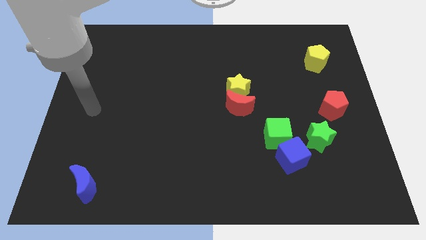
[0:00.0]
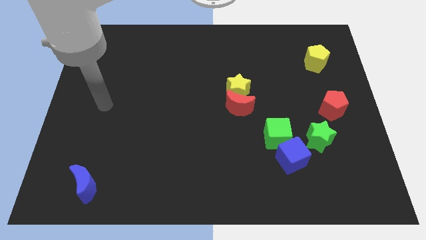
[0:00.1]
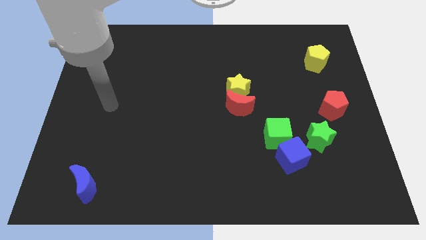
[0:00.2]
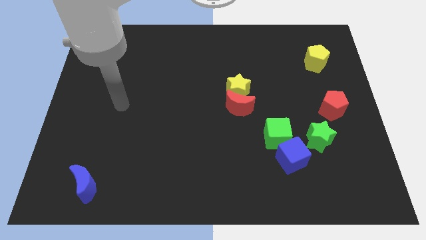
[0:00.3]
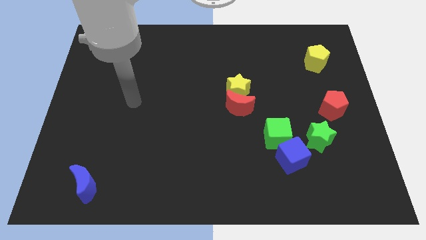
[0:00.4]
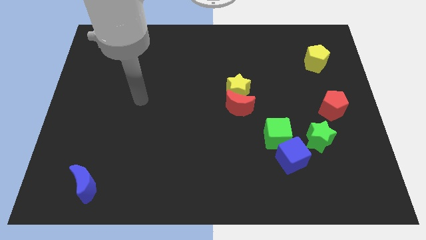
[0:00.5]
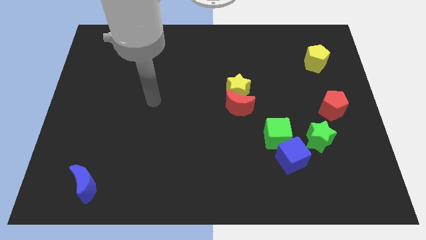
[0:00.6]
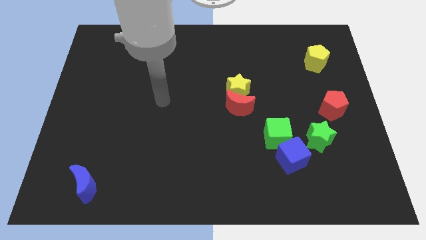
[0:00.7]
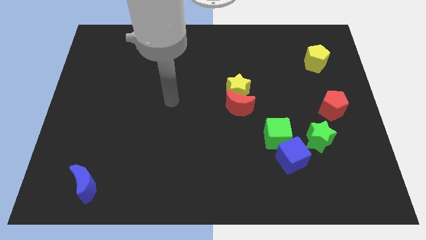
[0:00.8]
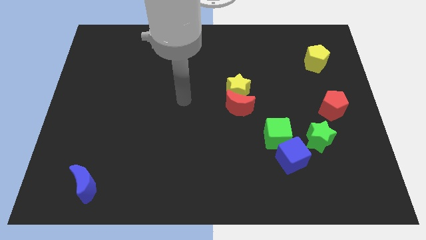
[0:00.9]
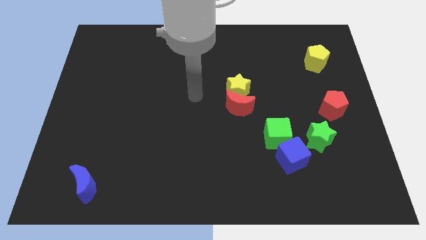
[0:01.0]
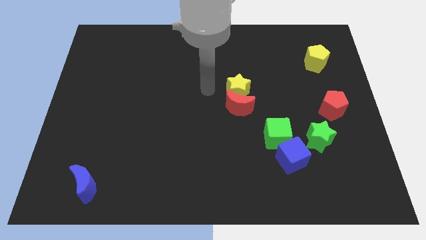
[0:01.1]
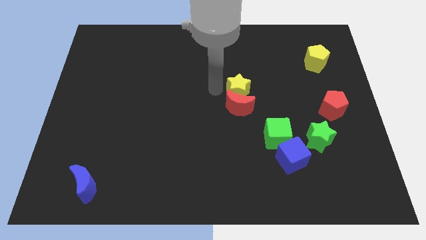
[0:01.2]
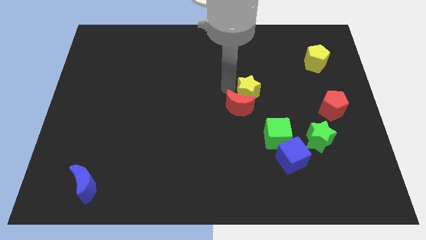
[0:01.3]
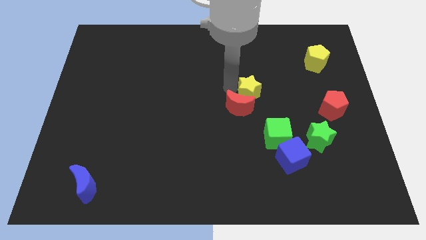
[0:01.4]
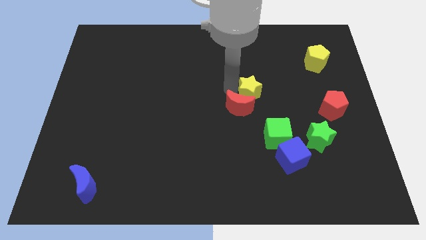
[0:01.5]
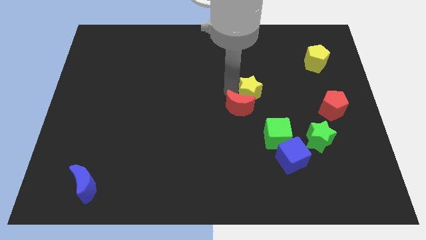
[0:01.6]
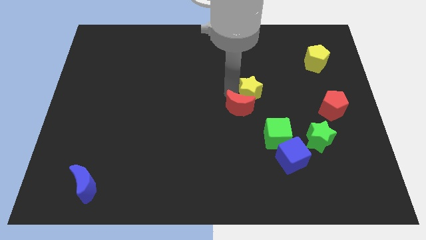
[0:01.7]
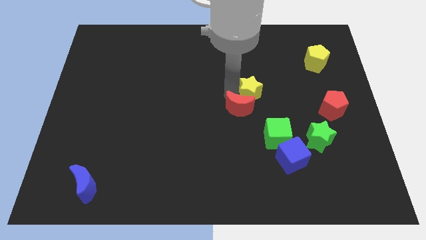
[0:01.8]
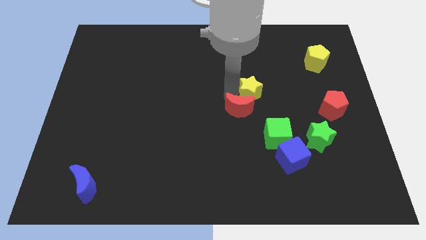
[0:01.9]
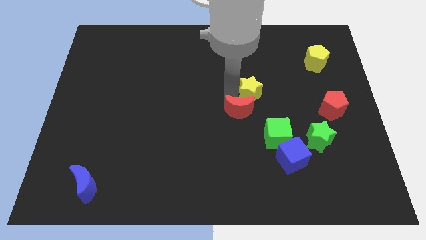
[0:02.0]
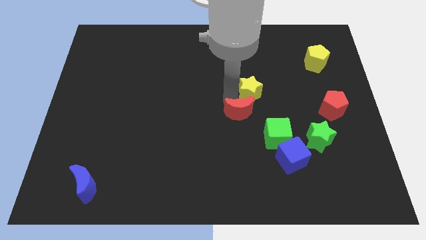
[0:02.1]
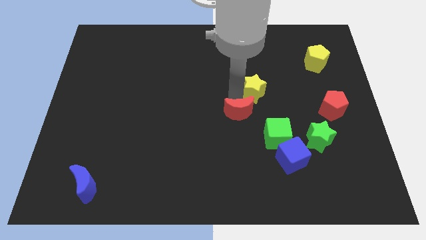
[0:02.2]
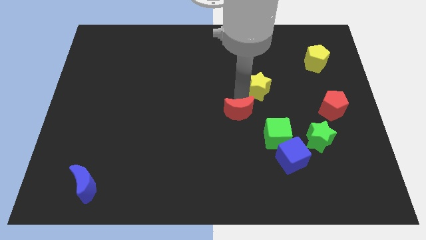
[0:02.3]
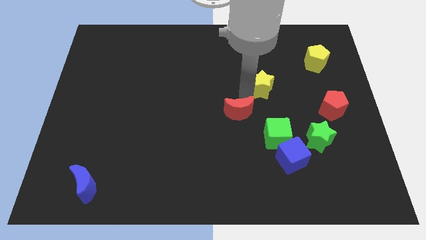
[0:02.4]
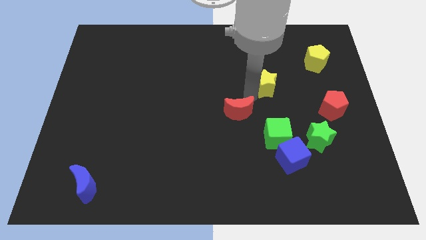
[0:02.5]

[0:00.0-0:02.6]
move the red moon away from the yellow star

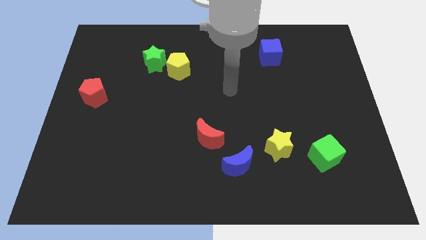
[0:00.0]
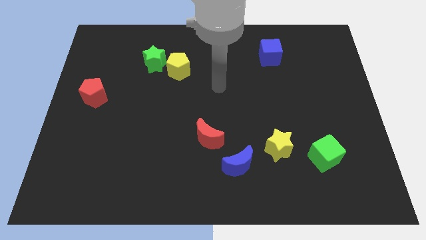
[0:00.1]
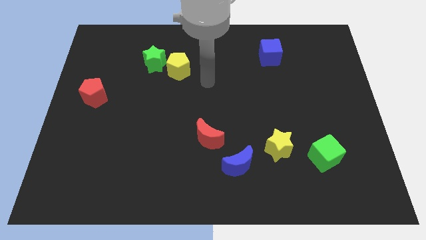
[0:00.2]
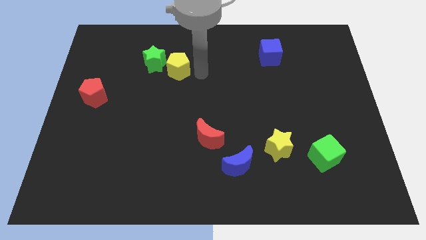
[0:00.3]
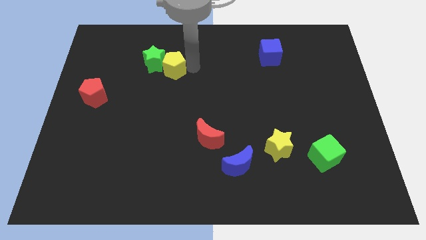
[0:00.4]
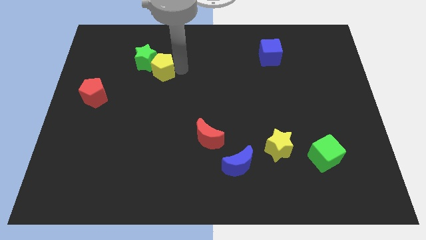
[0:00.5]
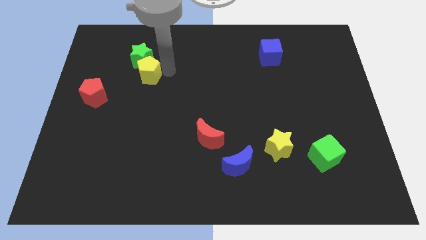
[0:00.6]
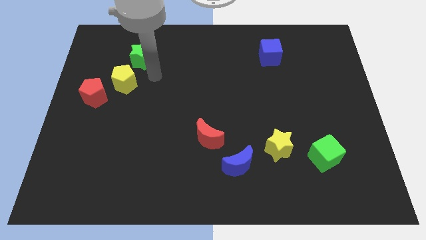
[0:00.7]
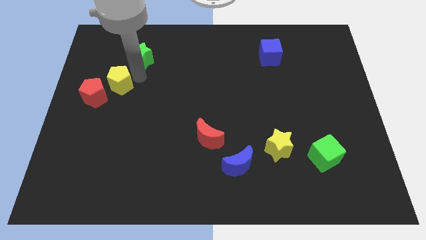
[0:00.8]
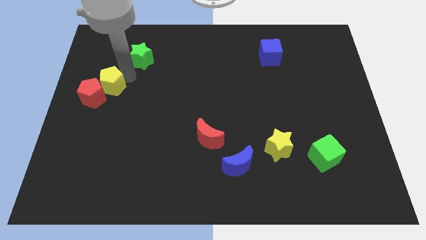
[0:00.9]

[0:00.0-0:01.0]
move the green star away from the yellow pentagon

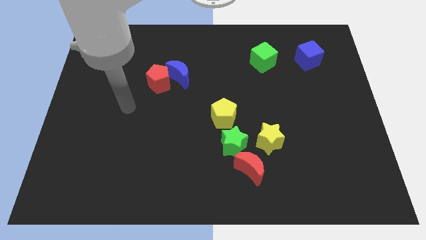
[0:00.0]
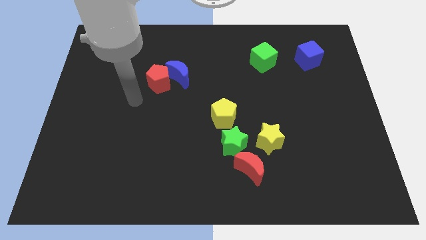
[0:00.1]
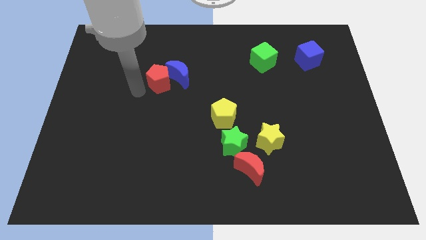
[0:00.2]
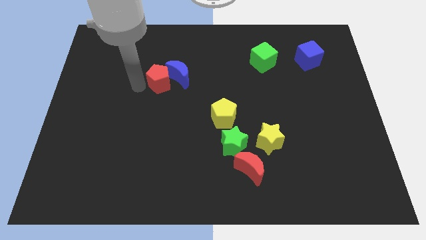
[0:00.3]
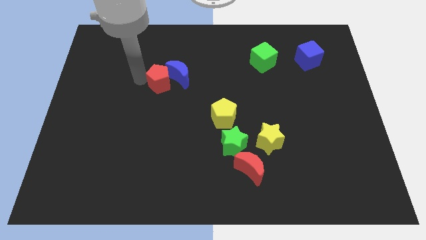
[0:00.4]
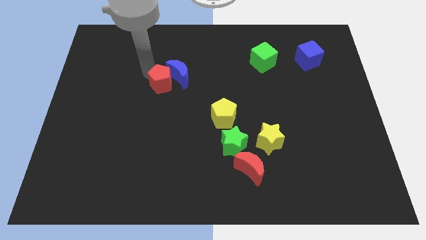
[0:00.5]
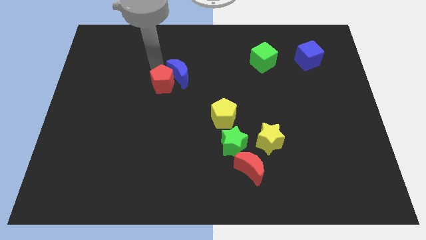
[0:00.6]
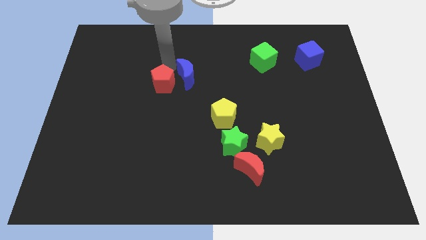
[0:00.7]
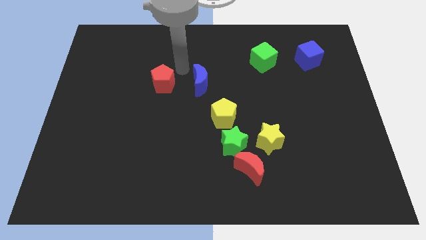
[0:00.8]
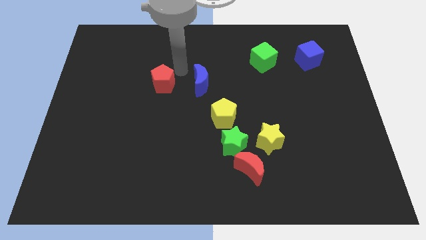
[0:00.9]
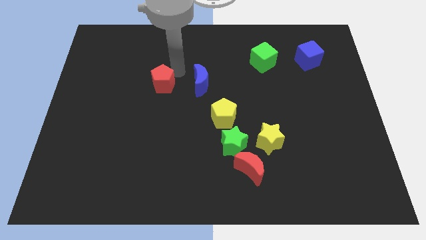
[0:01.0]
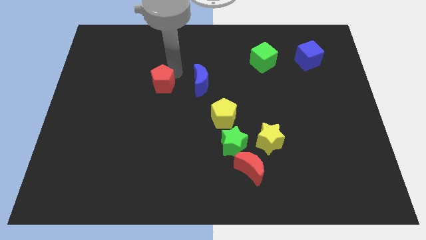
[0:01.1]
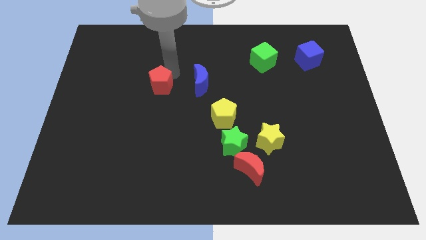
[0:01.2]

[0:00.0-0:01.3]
move the red pentagon away from the blue moon

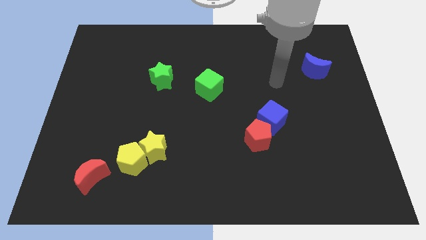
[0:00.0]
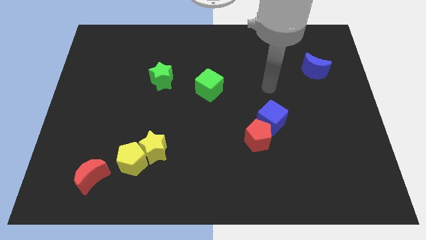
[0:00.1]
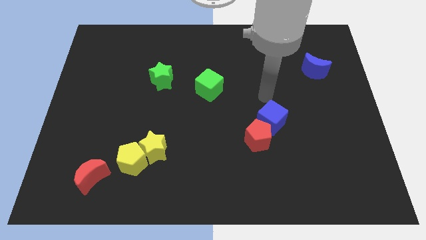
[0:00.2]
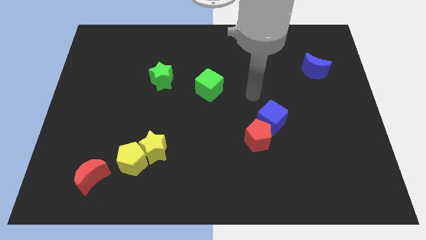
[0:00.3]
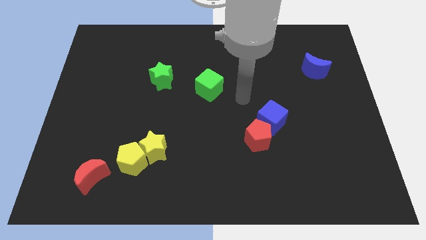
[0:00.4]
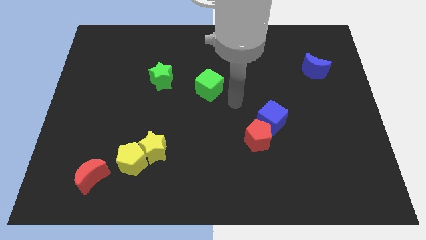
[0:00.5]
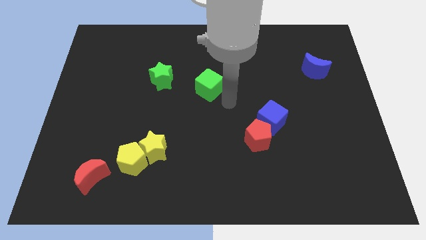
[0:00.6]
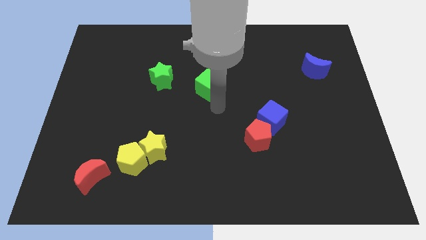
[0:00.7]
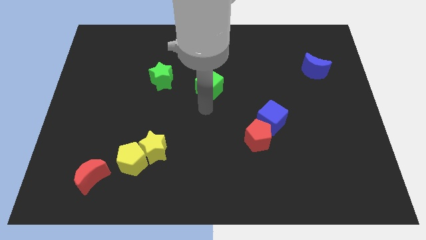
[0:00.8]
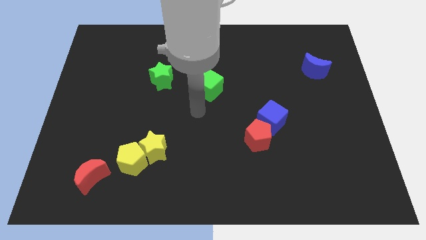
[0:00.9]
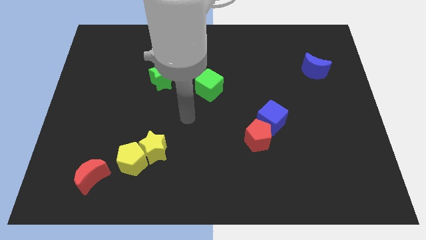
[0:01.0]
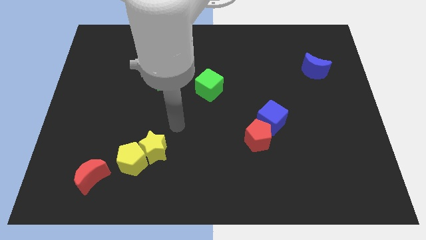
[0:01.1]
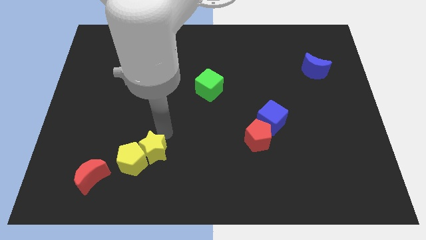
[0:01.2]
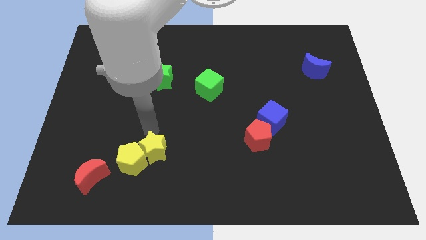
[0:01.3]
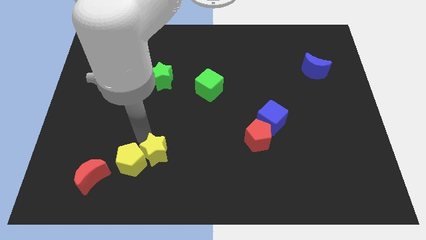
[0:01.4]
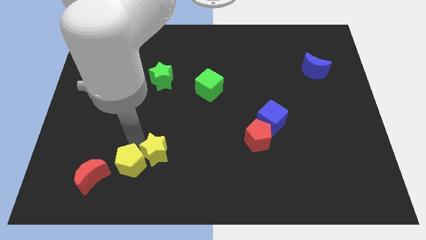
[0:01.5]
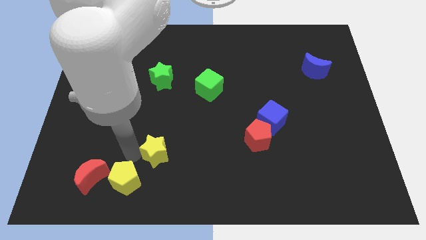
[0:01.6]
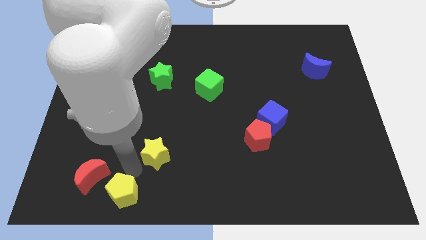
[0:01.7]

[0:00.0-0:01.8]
pull the yellow star apart from the yellow pentagon

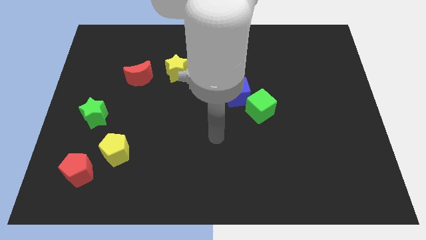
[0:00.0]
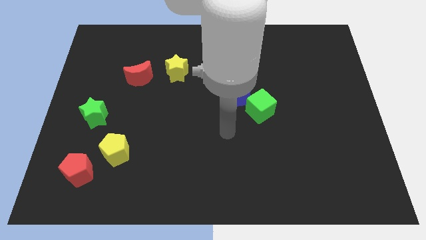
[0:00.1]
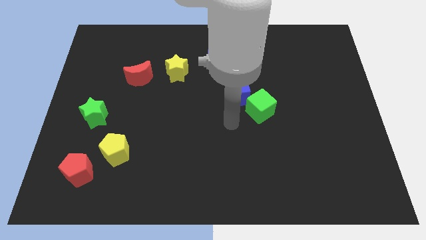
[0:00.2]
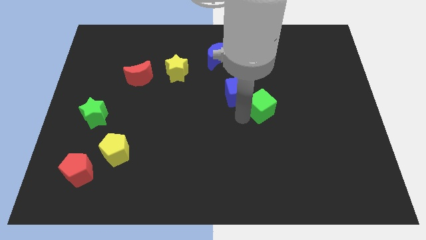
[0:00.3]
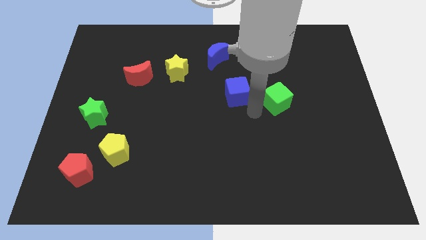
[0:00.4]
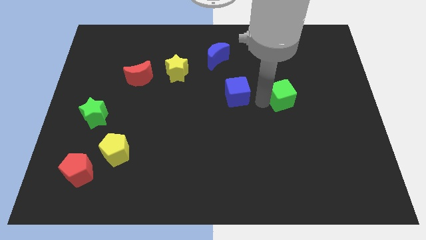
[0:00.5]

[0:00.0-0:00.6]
pull the blue cube apart from the green cube

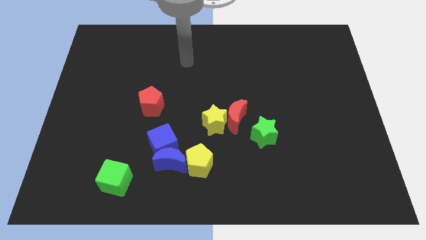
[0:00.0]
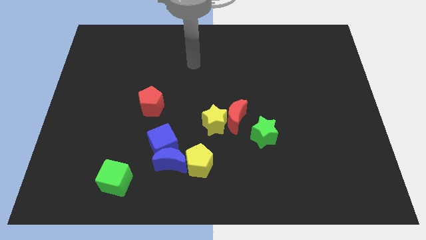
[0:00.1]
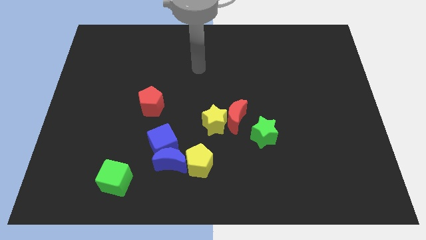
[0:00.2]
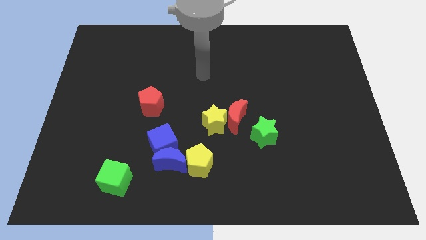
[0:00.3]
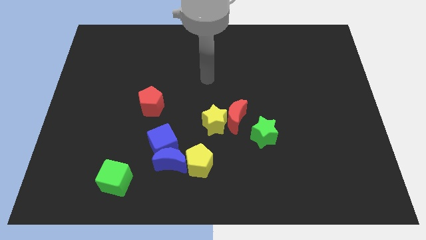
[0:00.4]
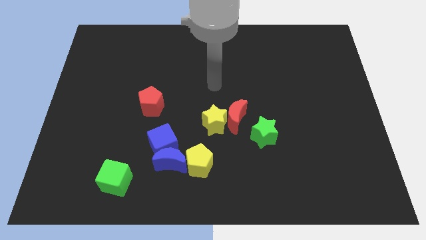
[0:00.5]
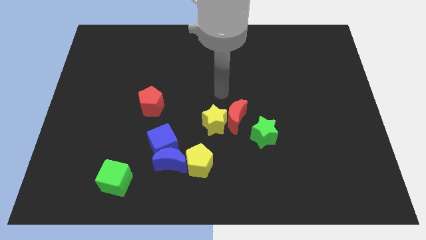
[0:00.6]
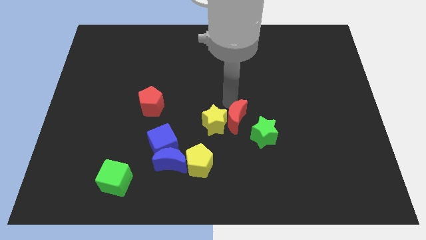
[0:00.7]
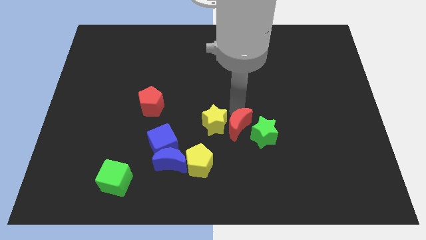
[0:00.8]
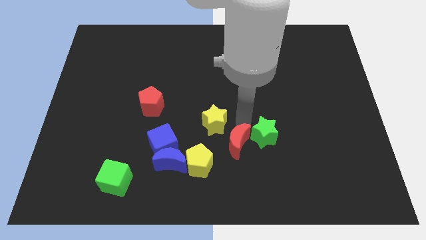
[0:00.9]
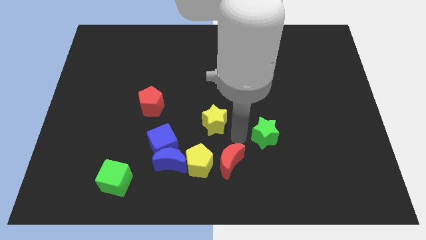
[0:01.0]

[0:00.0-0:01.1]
pull the yellow star apart from the red moon

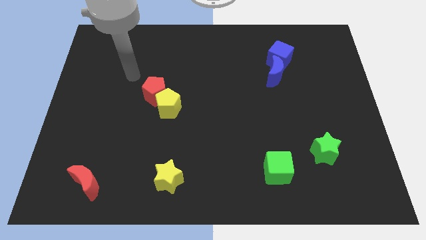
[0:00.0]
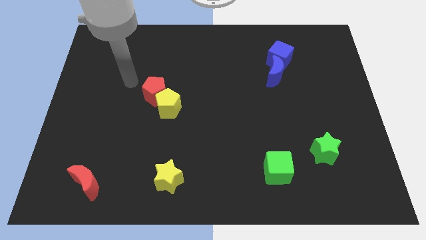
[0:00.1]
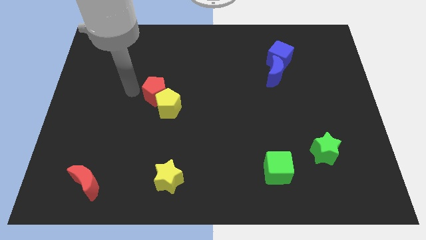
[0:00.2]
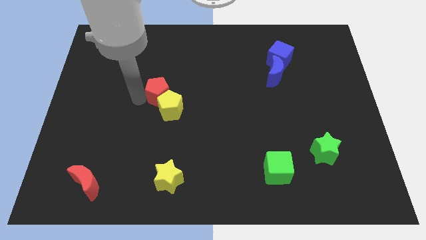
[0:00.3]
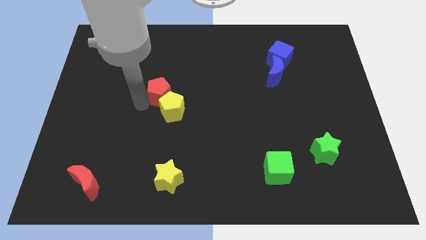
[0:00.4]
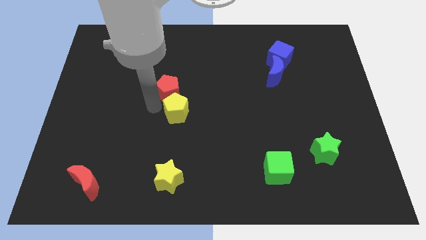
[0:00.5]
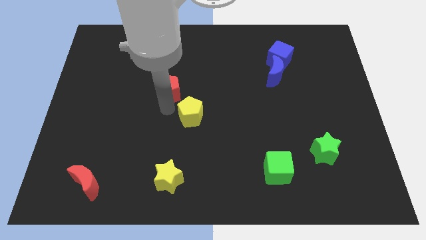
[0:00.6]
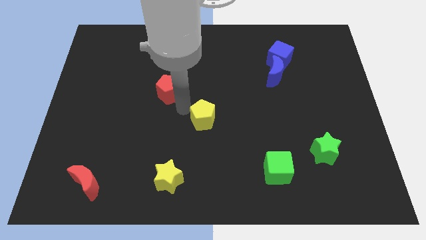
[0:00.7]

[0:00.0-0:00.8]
move the red pentagon away from the yellow pentagon
